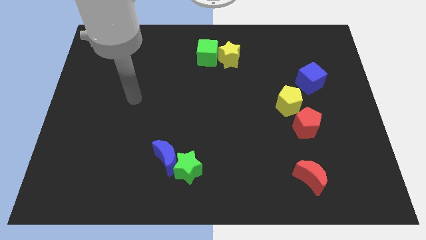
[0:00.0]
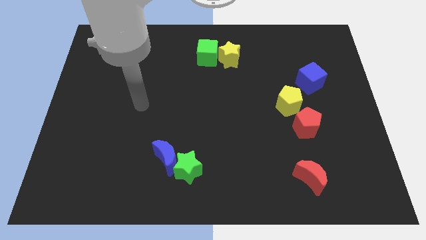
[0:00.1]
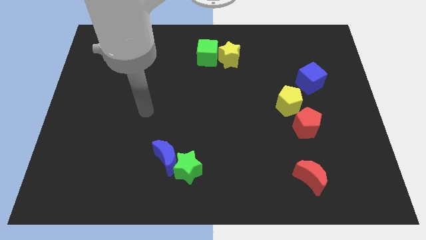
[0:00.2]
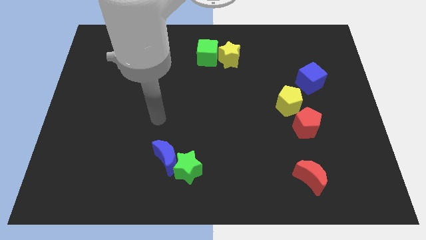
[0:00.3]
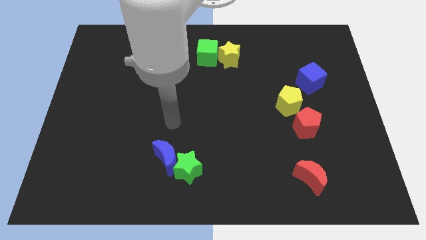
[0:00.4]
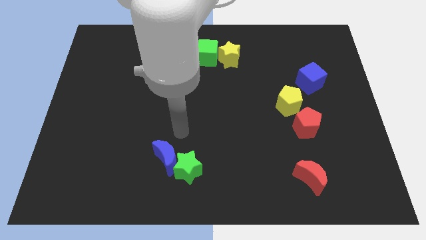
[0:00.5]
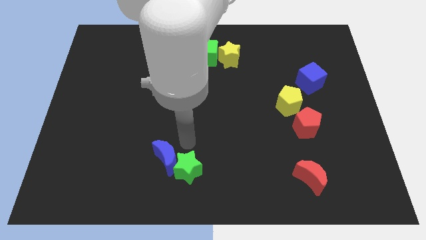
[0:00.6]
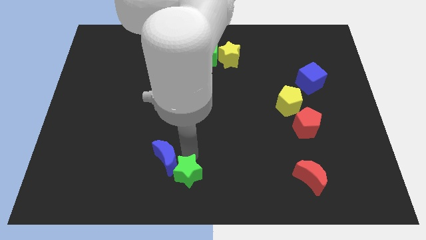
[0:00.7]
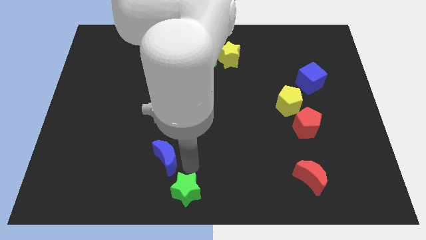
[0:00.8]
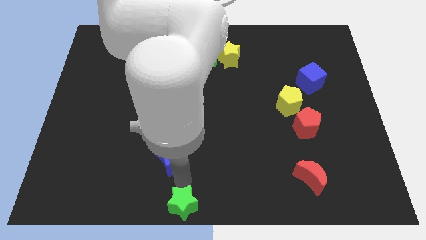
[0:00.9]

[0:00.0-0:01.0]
separate the blue moon from the green star

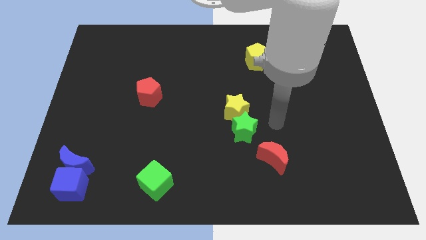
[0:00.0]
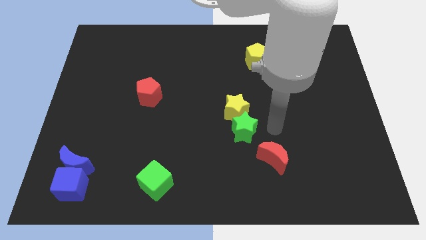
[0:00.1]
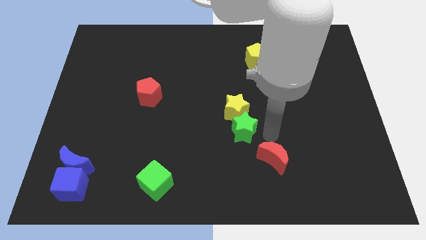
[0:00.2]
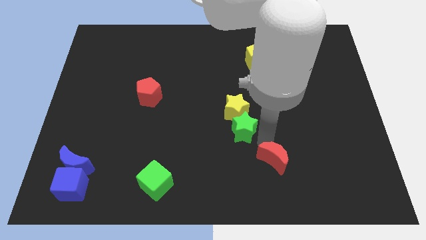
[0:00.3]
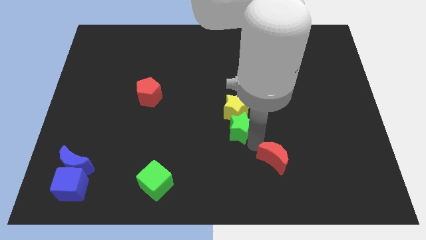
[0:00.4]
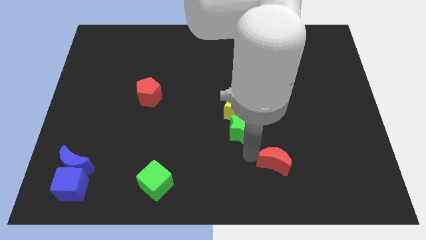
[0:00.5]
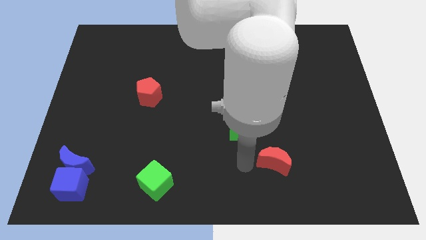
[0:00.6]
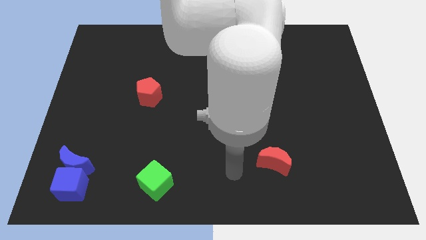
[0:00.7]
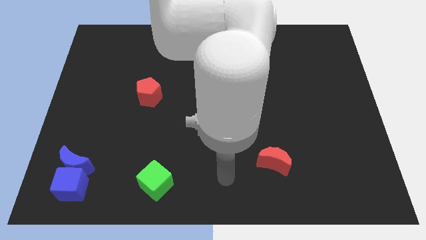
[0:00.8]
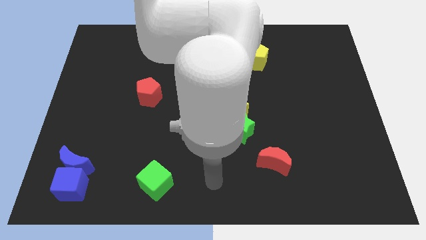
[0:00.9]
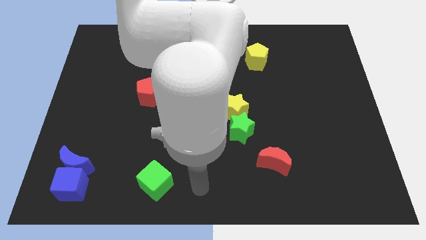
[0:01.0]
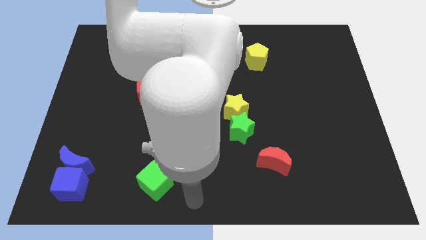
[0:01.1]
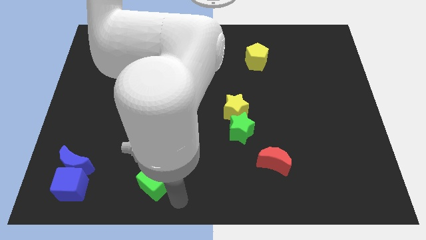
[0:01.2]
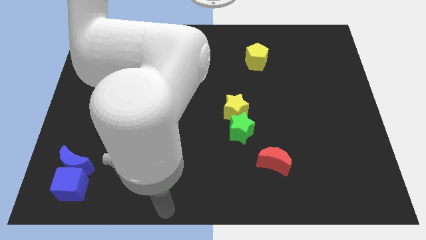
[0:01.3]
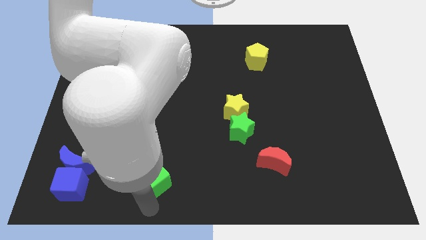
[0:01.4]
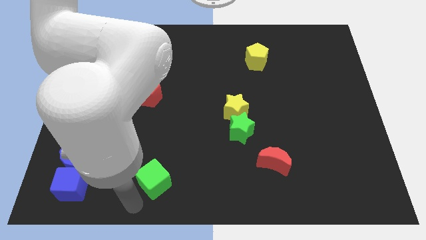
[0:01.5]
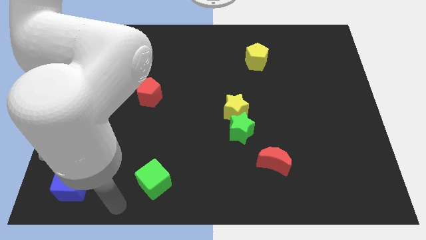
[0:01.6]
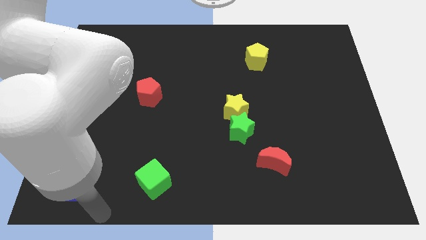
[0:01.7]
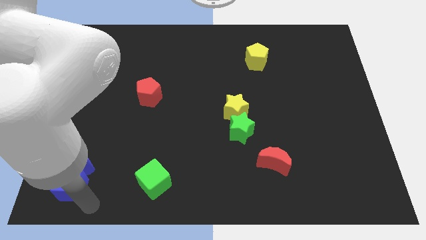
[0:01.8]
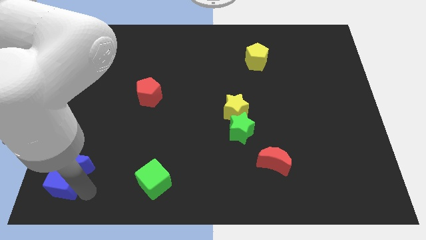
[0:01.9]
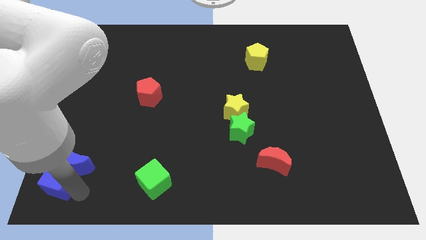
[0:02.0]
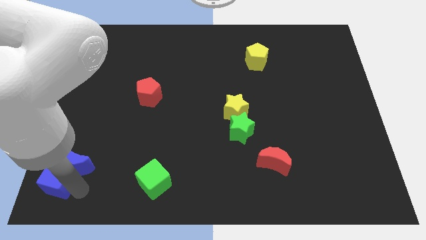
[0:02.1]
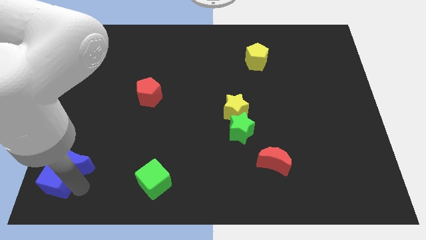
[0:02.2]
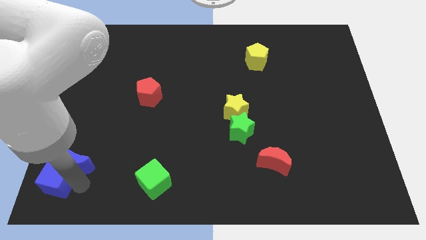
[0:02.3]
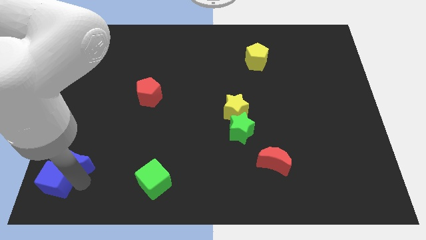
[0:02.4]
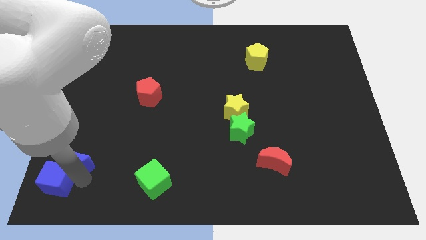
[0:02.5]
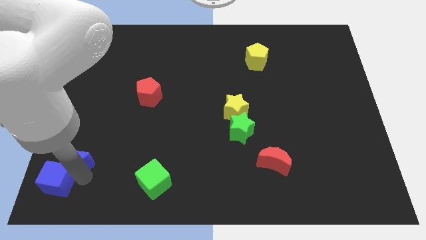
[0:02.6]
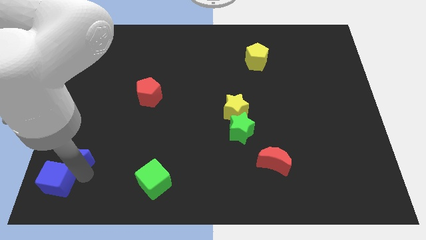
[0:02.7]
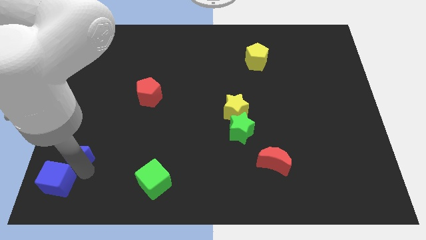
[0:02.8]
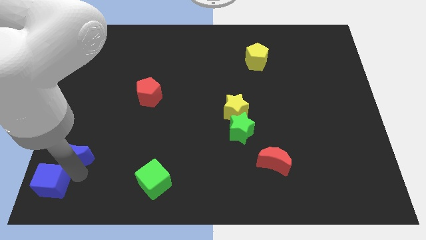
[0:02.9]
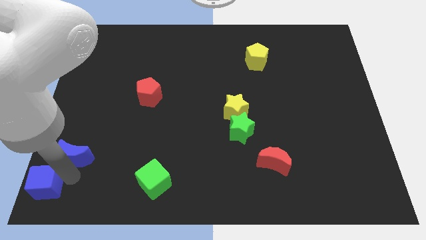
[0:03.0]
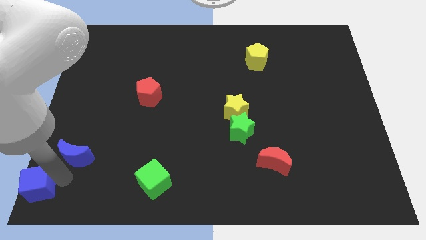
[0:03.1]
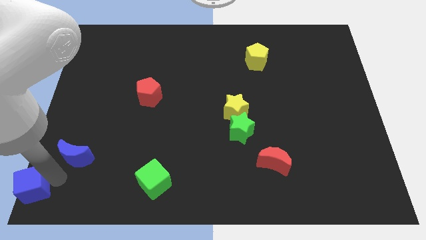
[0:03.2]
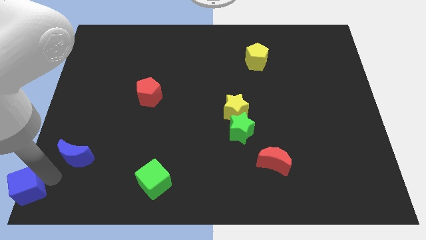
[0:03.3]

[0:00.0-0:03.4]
separate the blue moon from the blue cube

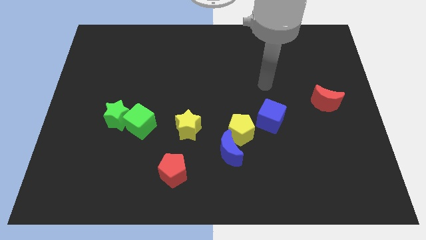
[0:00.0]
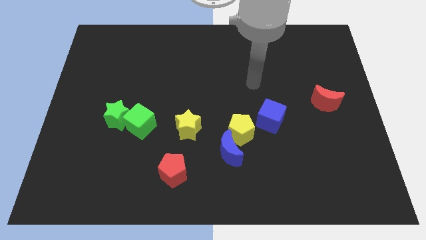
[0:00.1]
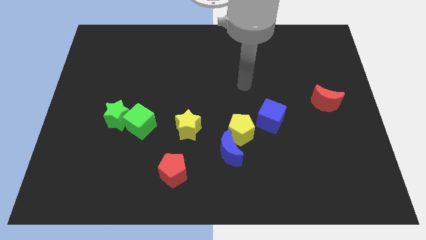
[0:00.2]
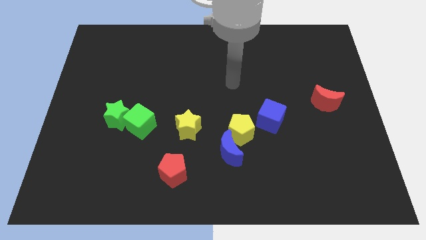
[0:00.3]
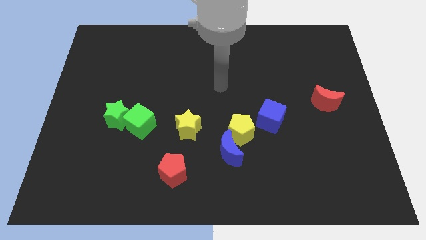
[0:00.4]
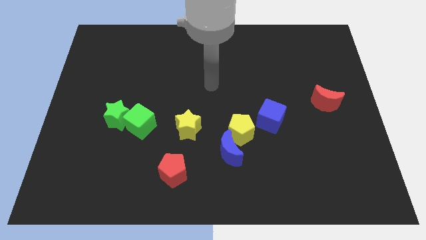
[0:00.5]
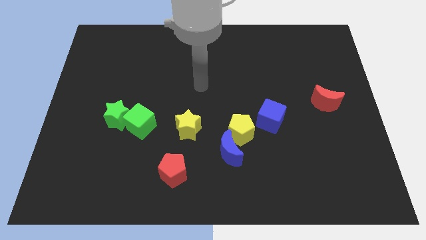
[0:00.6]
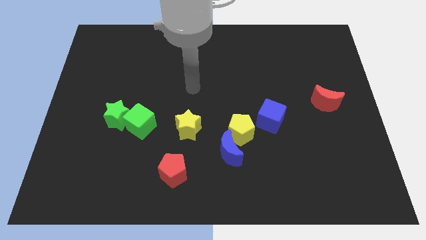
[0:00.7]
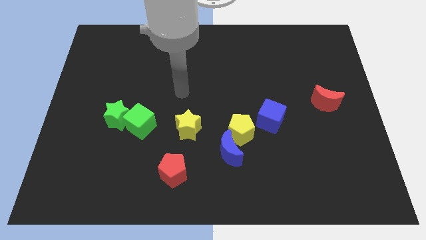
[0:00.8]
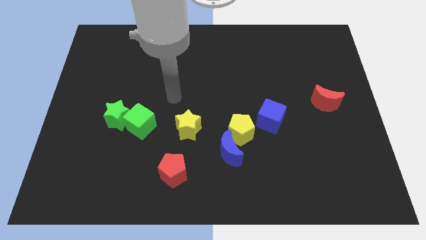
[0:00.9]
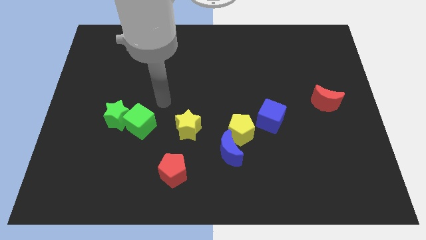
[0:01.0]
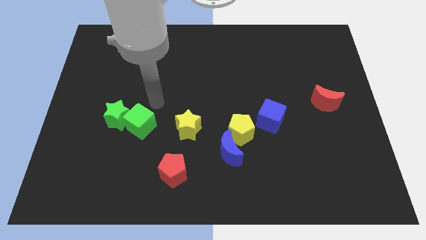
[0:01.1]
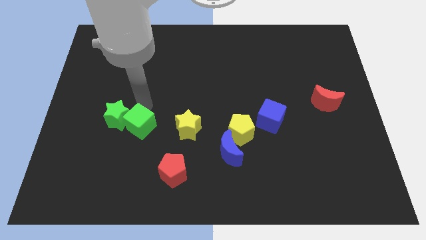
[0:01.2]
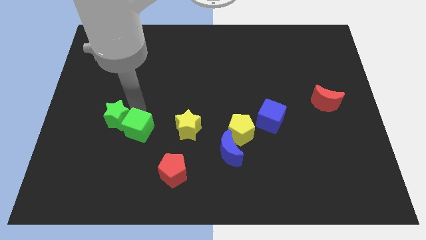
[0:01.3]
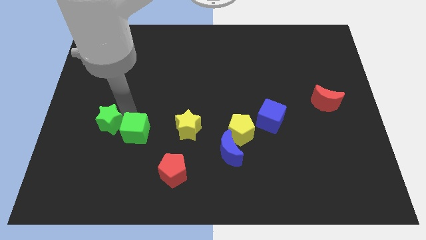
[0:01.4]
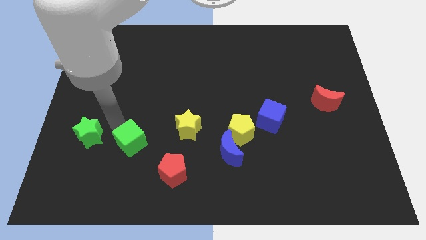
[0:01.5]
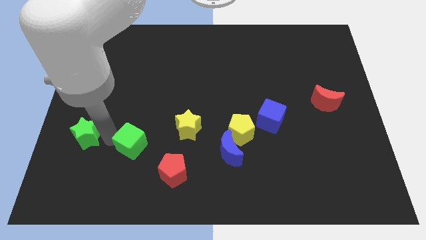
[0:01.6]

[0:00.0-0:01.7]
separate the green cube from the green star

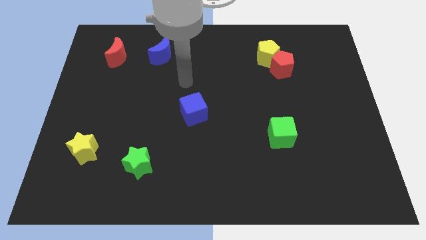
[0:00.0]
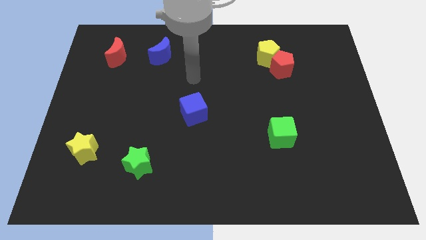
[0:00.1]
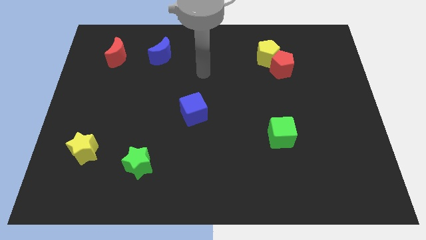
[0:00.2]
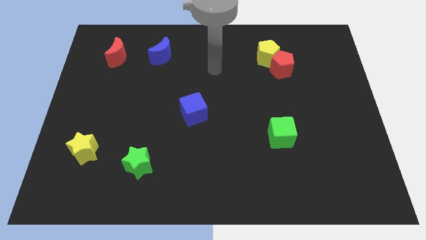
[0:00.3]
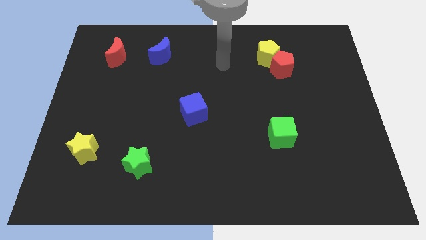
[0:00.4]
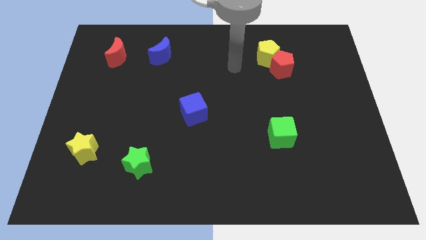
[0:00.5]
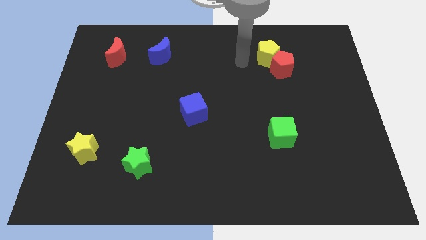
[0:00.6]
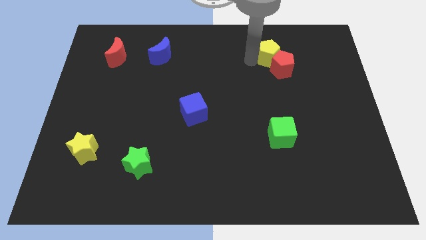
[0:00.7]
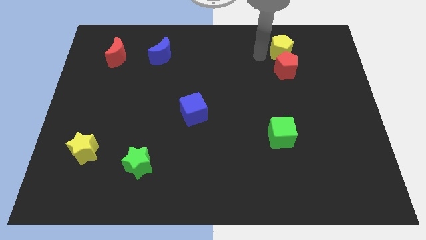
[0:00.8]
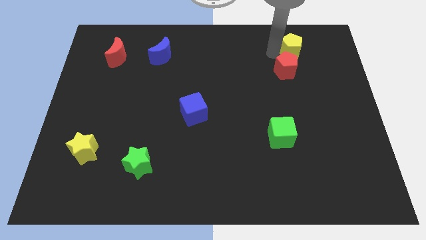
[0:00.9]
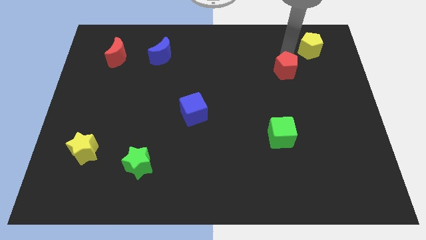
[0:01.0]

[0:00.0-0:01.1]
separate the red pentagon from the yellow pentagon

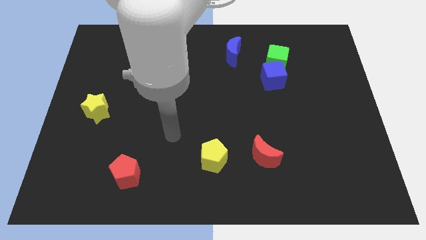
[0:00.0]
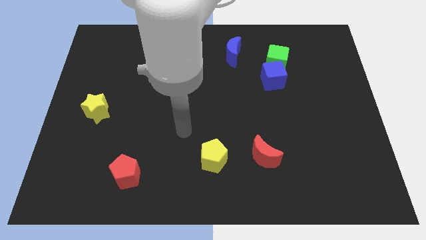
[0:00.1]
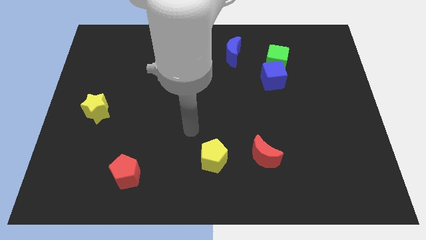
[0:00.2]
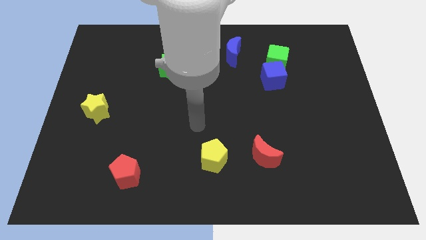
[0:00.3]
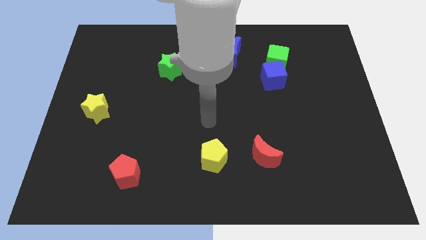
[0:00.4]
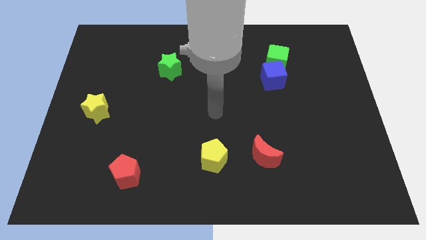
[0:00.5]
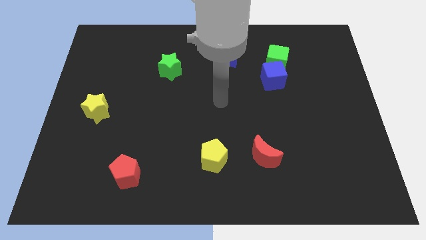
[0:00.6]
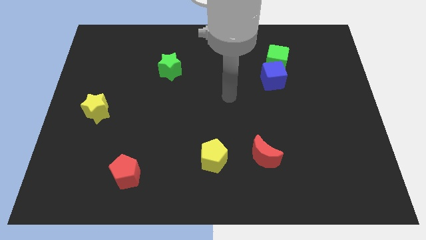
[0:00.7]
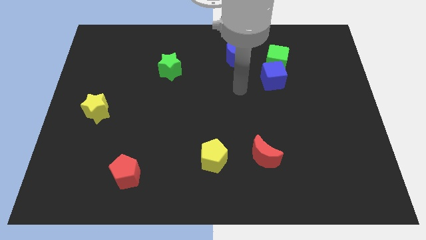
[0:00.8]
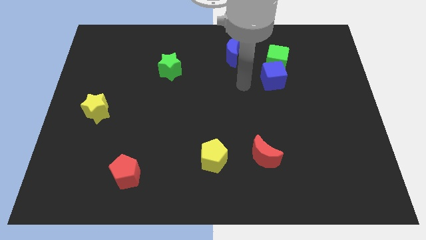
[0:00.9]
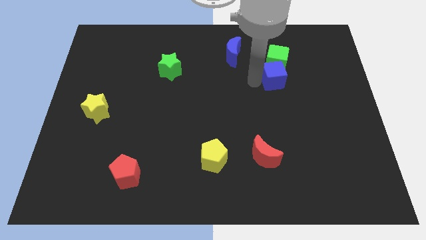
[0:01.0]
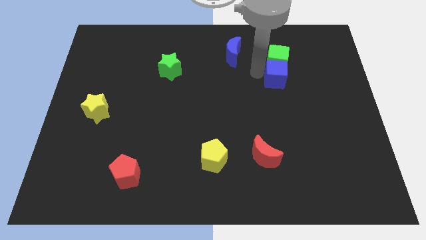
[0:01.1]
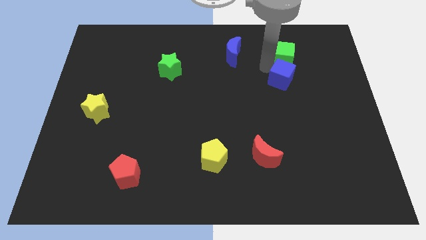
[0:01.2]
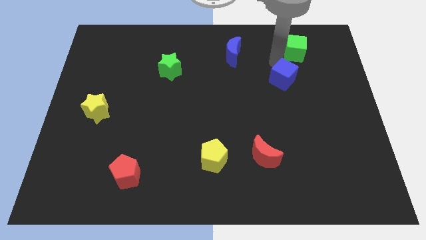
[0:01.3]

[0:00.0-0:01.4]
move the blue cube away from the green cube

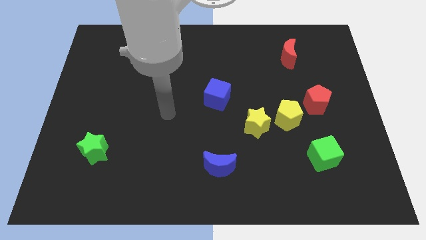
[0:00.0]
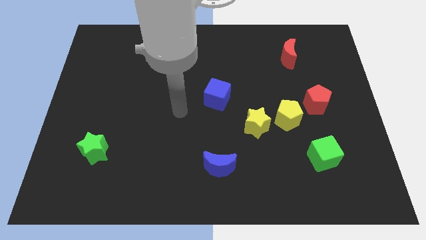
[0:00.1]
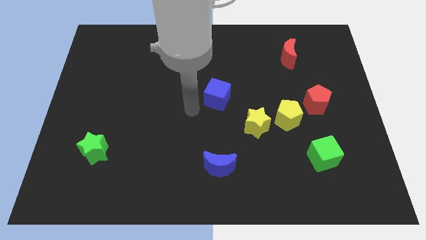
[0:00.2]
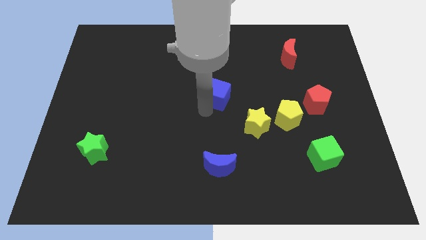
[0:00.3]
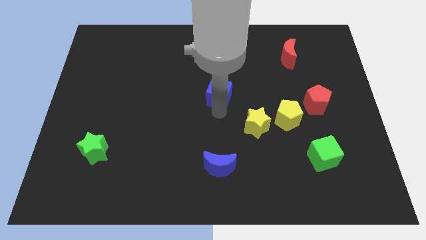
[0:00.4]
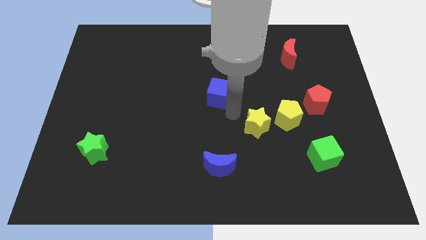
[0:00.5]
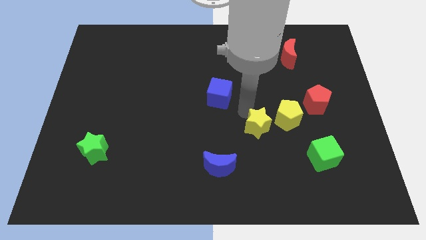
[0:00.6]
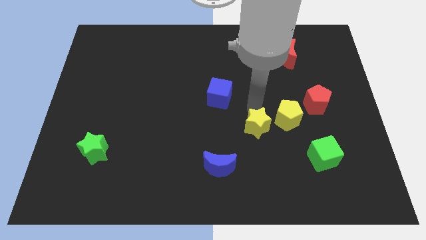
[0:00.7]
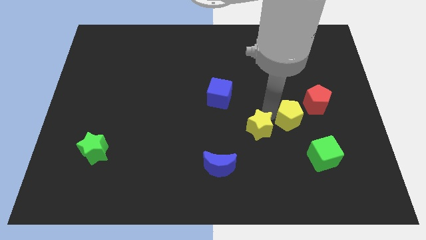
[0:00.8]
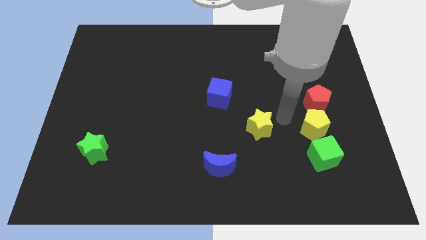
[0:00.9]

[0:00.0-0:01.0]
separate the yellow star from the yellow pentagon
